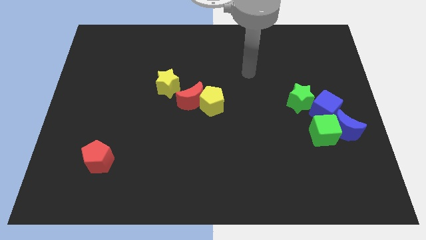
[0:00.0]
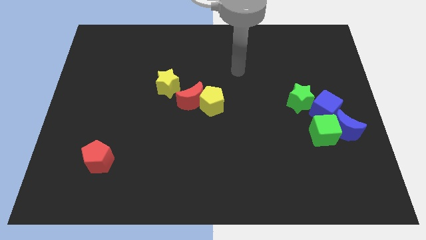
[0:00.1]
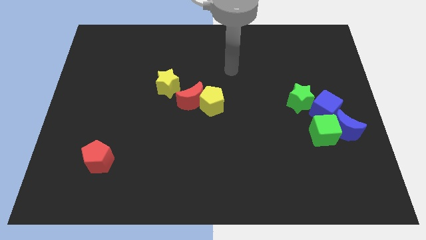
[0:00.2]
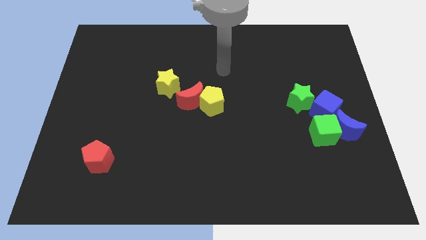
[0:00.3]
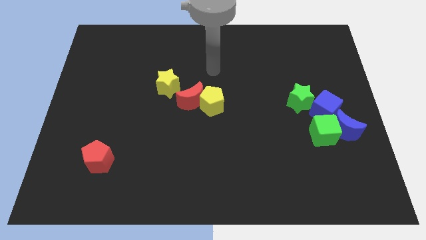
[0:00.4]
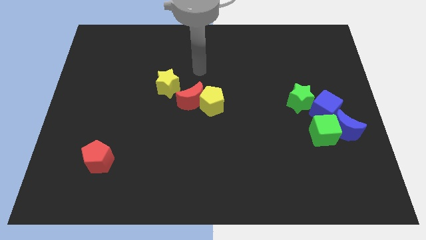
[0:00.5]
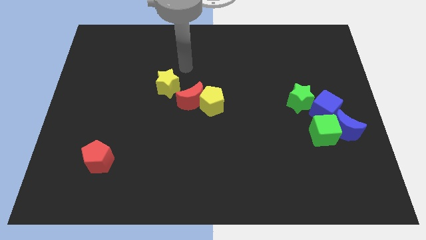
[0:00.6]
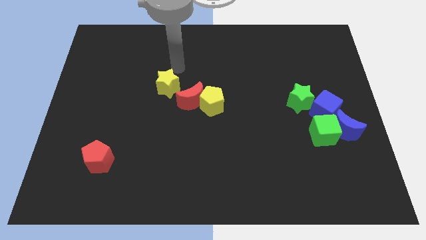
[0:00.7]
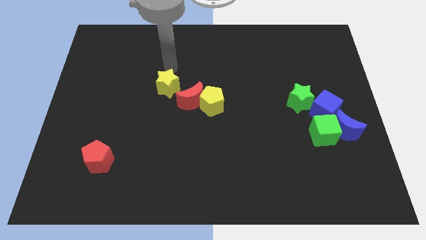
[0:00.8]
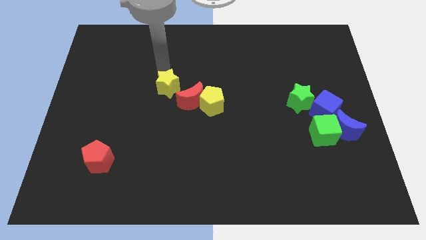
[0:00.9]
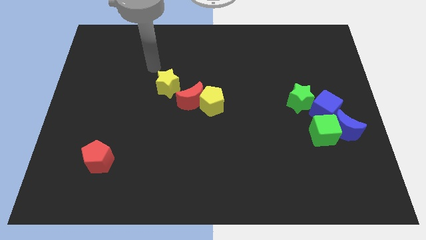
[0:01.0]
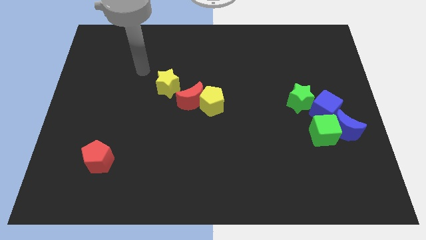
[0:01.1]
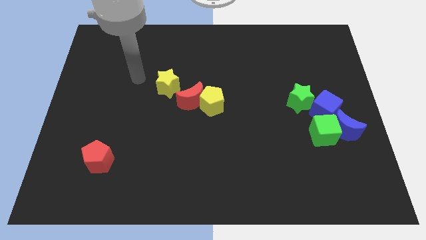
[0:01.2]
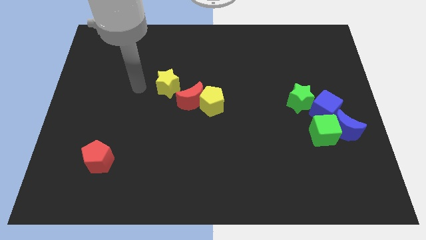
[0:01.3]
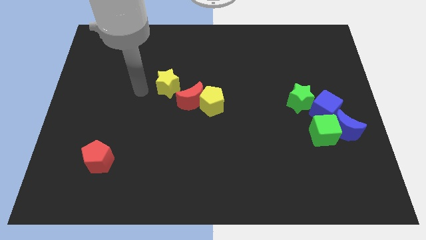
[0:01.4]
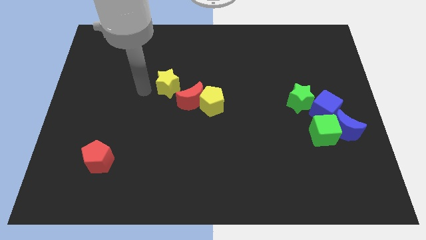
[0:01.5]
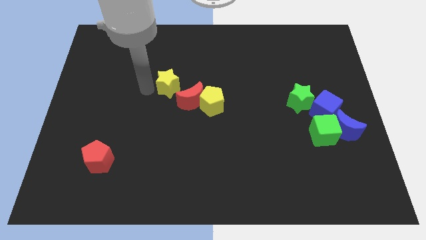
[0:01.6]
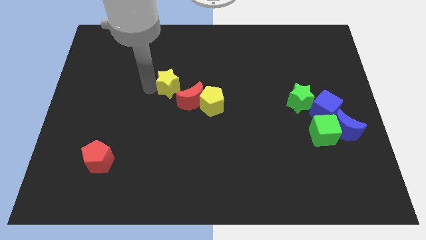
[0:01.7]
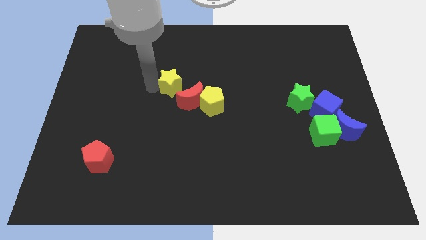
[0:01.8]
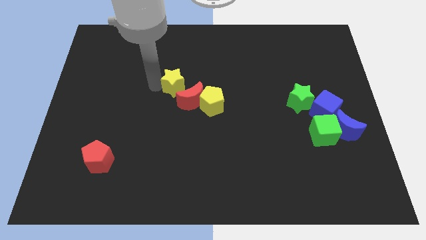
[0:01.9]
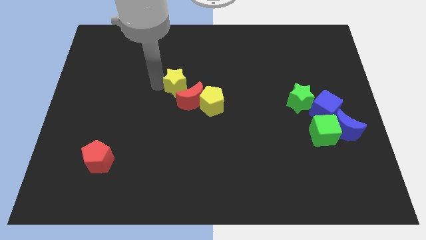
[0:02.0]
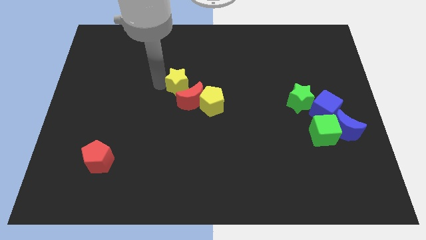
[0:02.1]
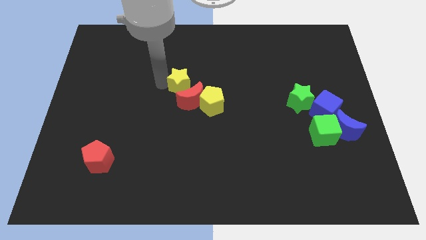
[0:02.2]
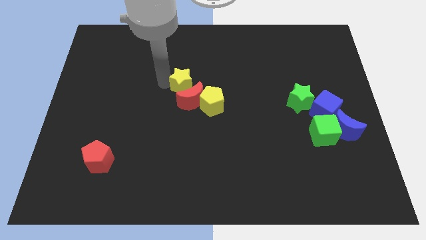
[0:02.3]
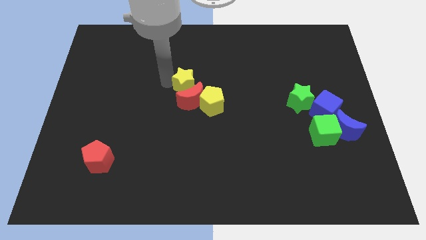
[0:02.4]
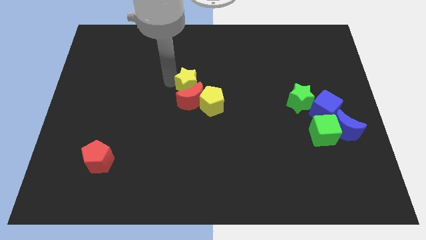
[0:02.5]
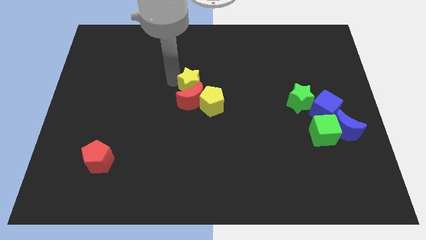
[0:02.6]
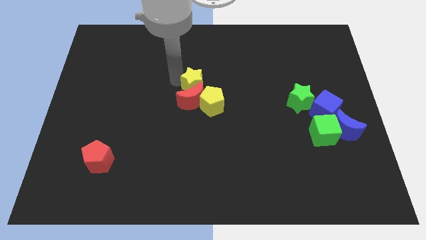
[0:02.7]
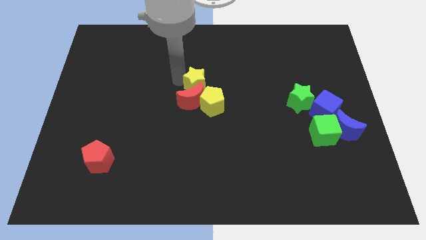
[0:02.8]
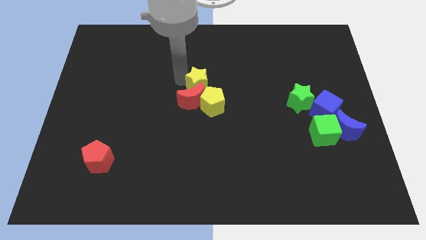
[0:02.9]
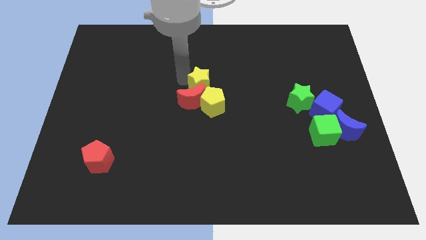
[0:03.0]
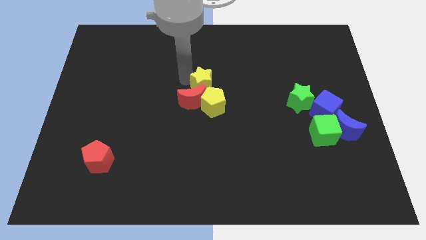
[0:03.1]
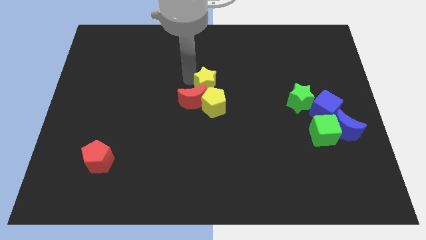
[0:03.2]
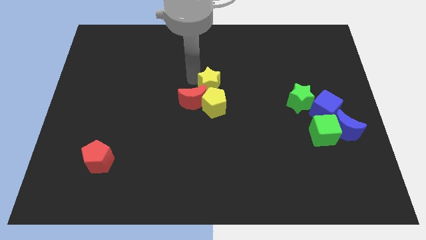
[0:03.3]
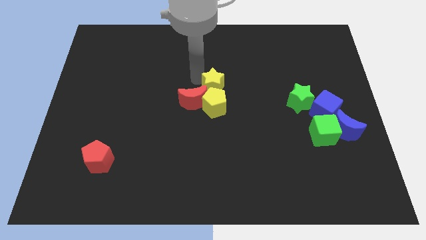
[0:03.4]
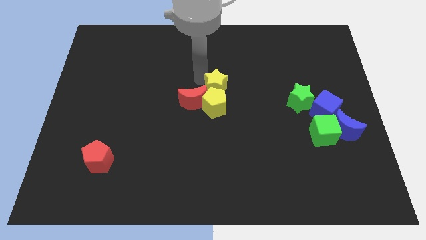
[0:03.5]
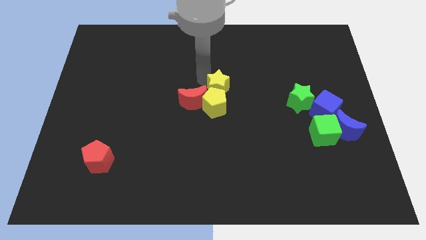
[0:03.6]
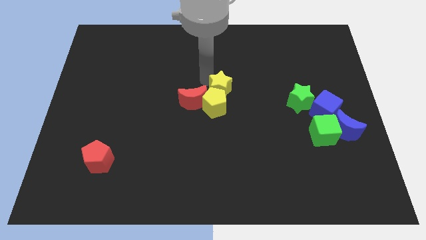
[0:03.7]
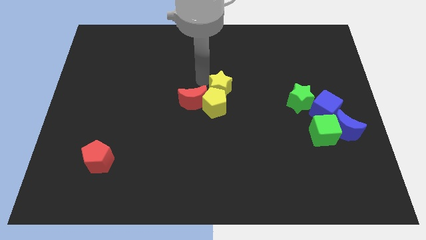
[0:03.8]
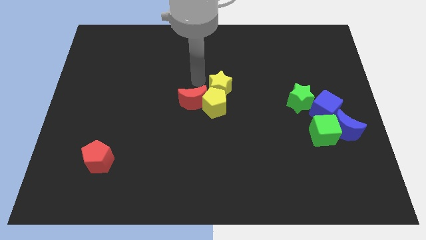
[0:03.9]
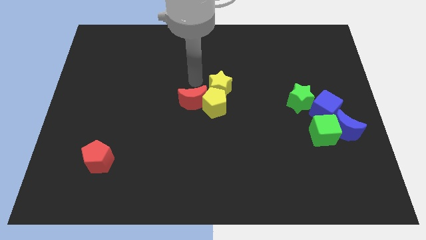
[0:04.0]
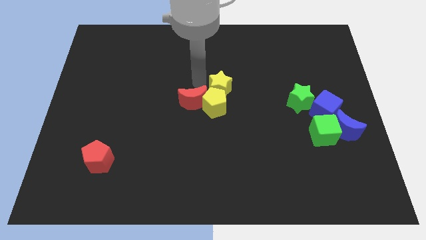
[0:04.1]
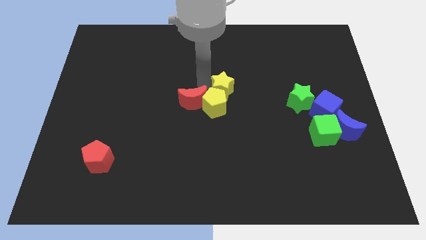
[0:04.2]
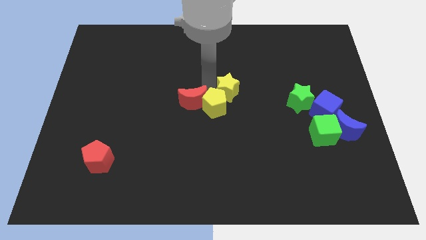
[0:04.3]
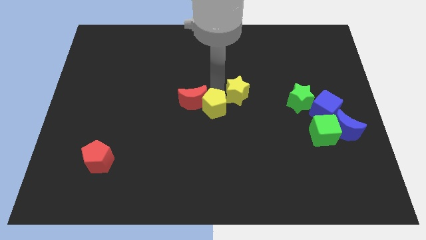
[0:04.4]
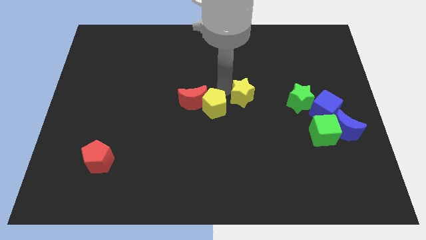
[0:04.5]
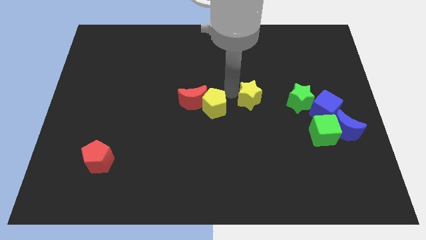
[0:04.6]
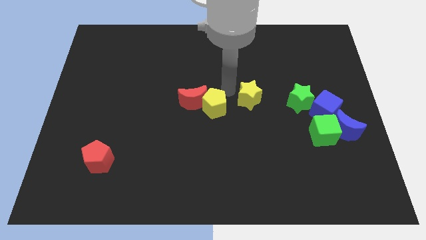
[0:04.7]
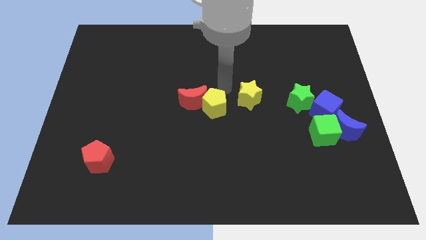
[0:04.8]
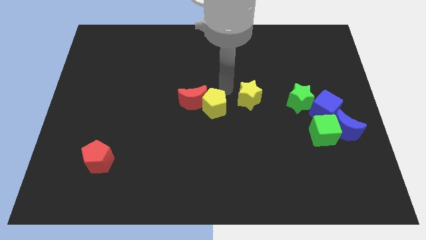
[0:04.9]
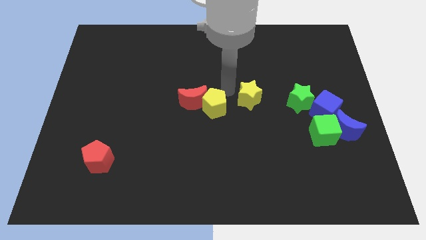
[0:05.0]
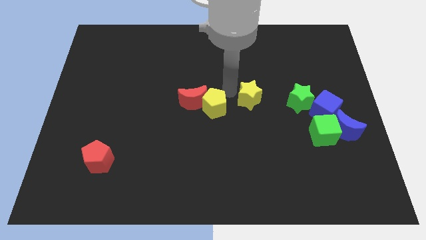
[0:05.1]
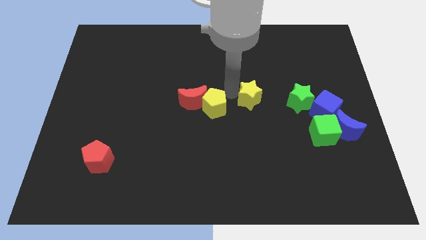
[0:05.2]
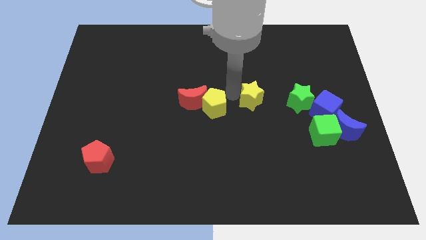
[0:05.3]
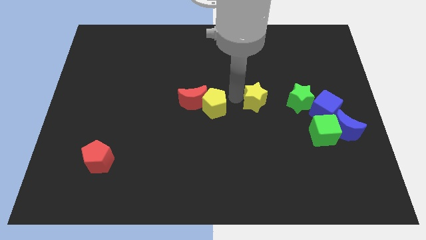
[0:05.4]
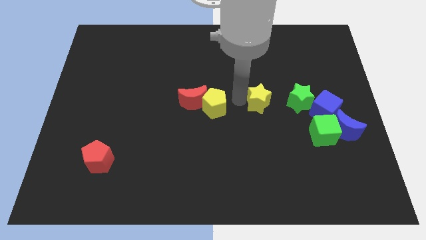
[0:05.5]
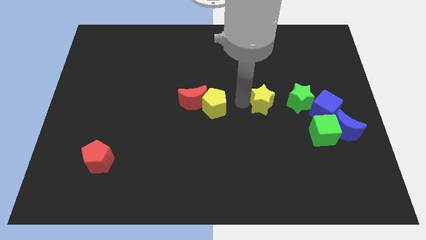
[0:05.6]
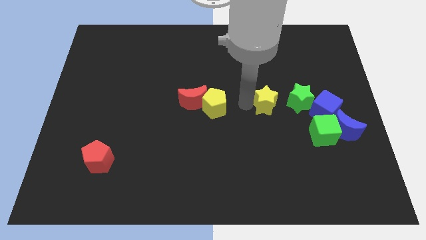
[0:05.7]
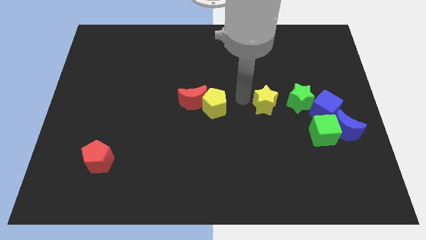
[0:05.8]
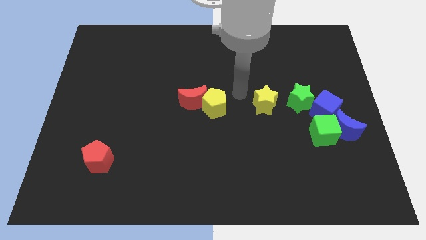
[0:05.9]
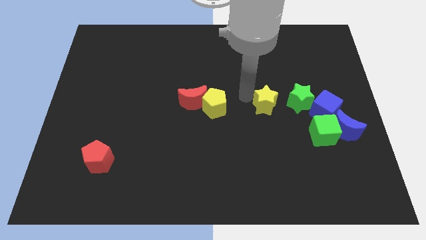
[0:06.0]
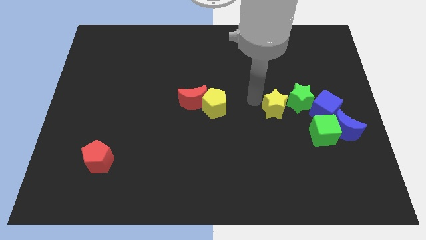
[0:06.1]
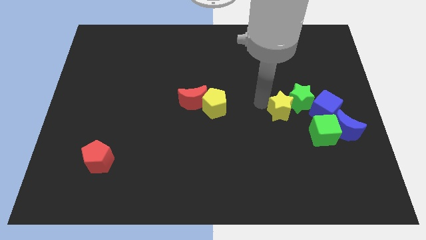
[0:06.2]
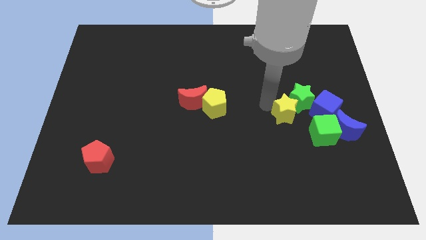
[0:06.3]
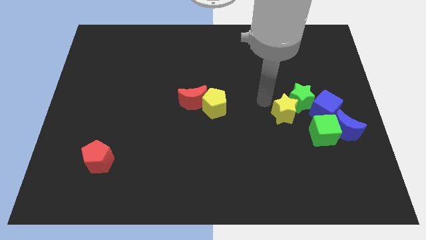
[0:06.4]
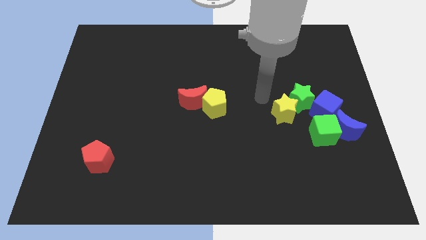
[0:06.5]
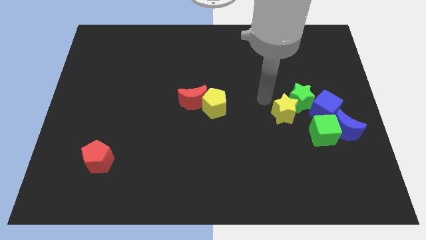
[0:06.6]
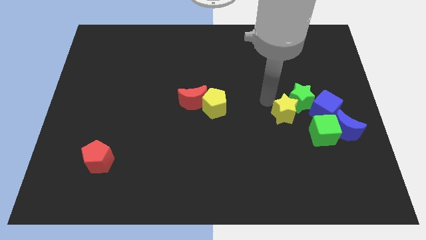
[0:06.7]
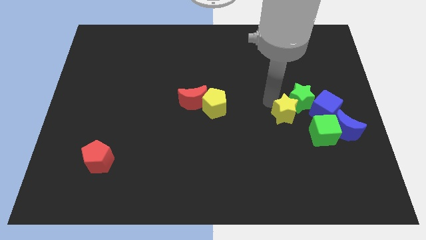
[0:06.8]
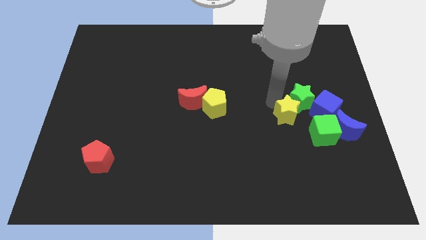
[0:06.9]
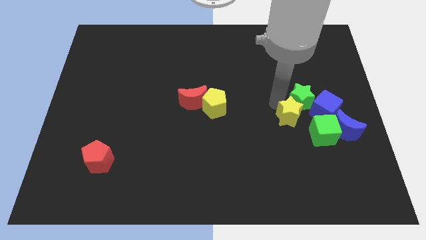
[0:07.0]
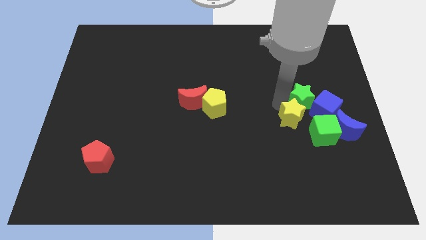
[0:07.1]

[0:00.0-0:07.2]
move the yellow star diagonally down and to the left of the blue cube
